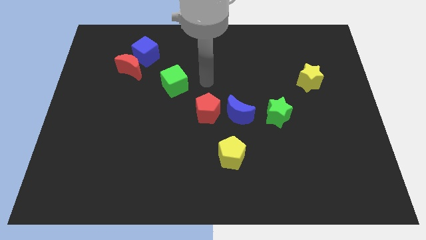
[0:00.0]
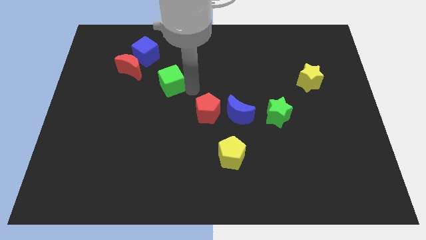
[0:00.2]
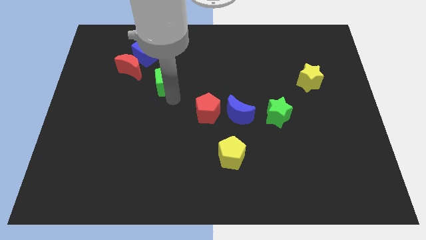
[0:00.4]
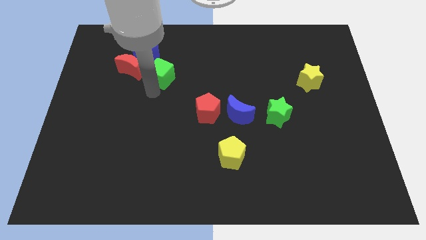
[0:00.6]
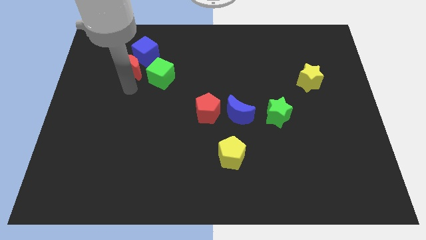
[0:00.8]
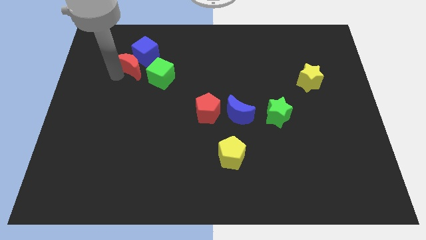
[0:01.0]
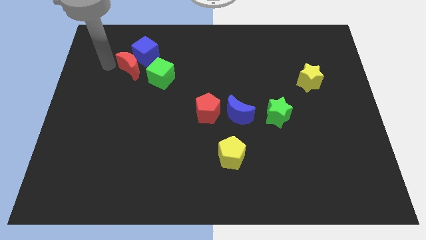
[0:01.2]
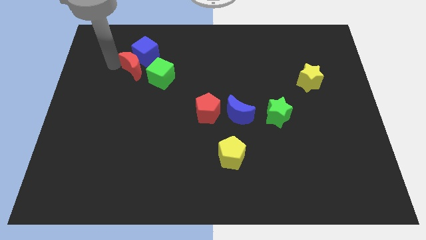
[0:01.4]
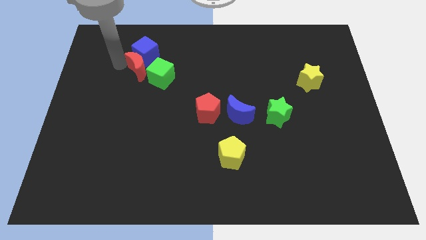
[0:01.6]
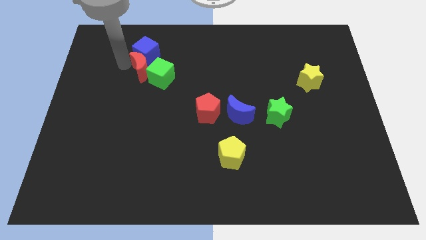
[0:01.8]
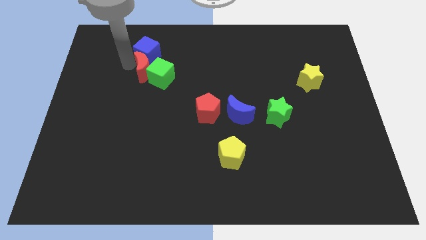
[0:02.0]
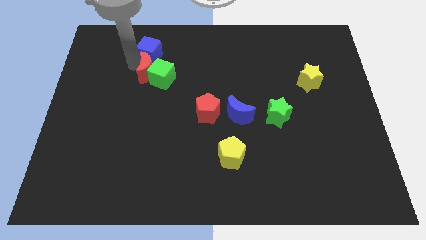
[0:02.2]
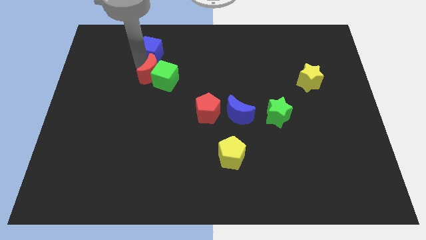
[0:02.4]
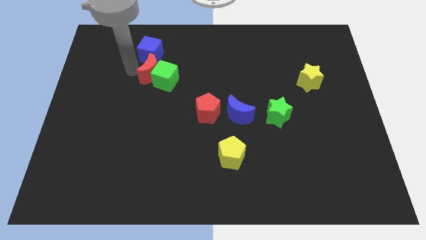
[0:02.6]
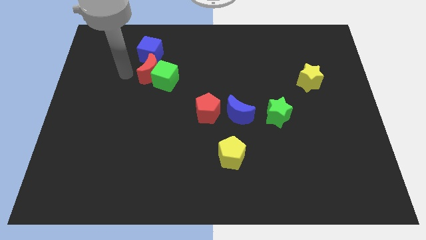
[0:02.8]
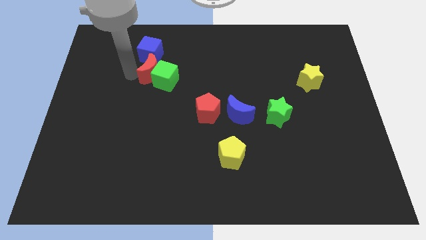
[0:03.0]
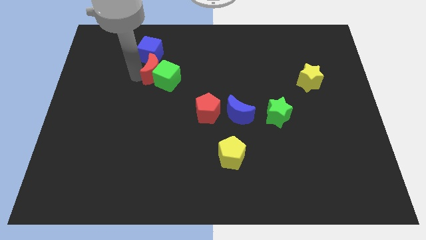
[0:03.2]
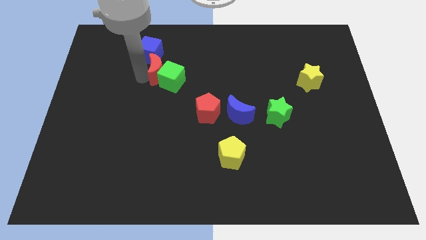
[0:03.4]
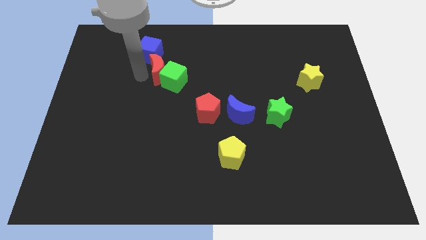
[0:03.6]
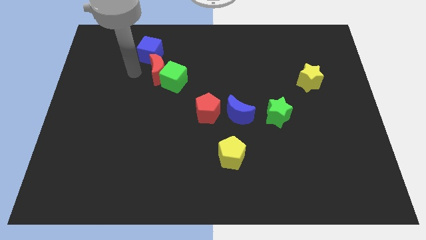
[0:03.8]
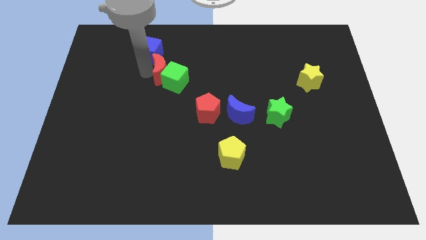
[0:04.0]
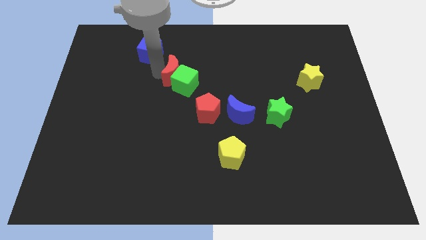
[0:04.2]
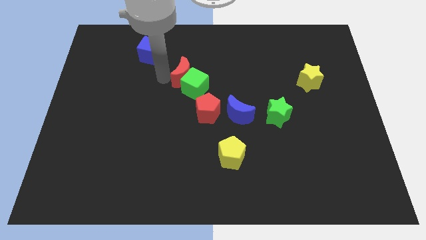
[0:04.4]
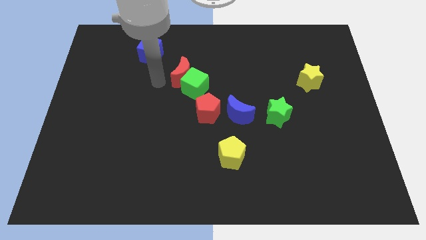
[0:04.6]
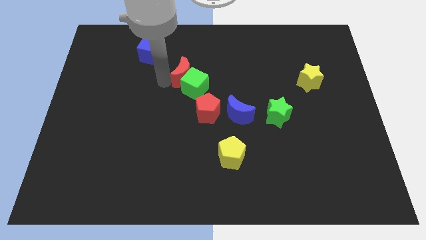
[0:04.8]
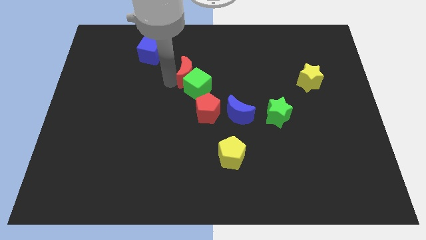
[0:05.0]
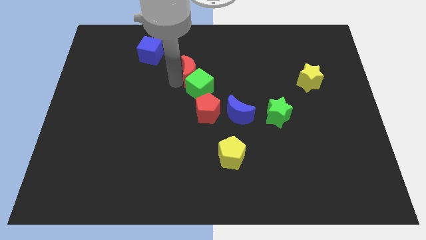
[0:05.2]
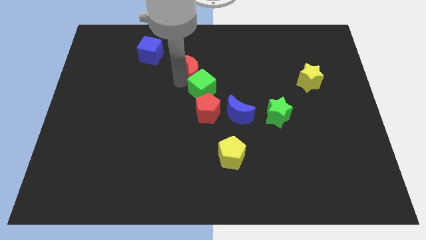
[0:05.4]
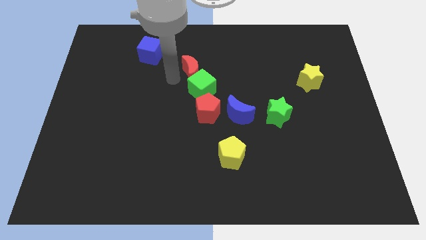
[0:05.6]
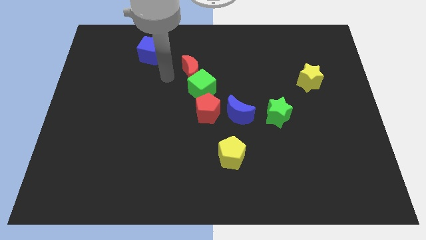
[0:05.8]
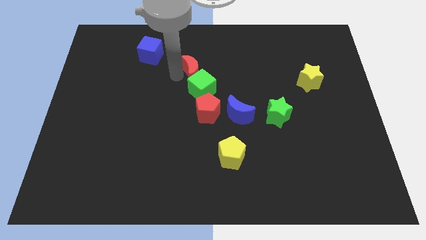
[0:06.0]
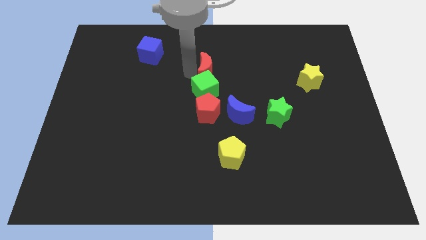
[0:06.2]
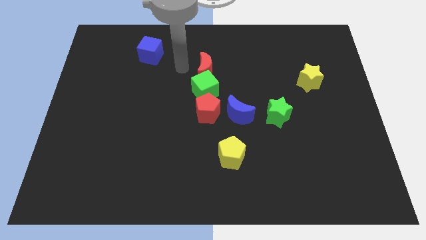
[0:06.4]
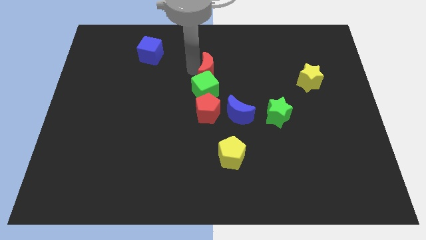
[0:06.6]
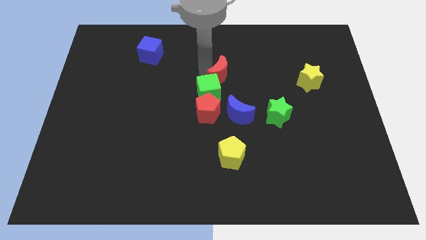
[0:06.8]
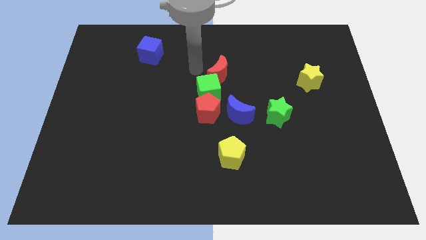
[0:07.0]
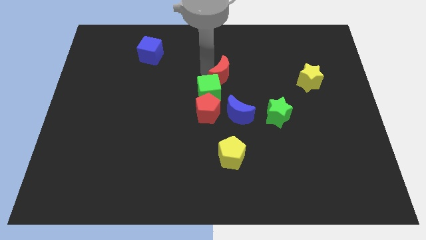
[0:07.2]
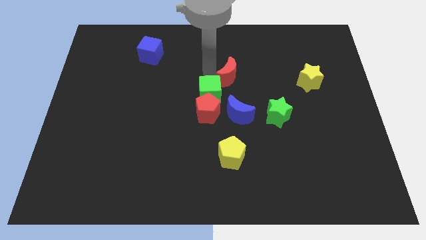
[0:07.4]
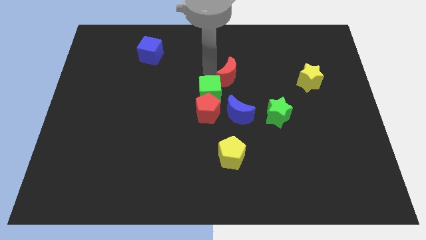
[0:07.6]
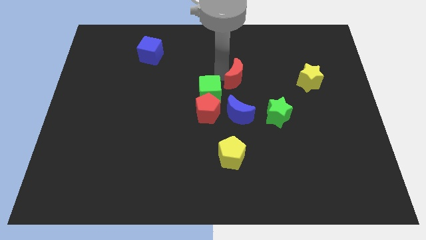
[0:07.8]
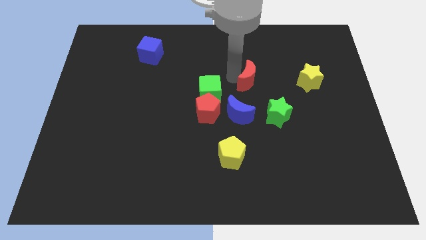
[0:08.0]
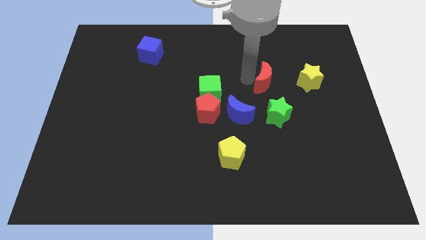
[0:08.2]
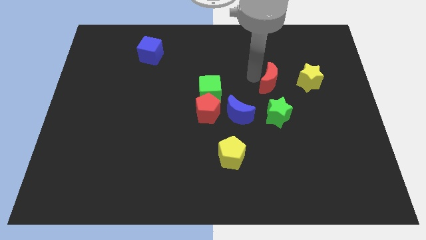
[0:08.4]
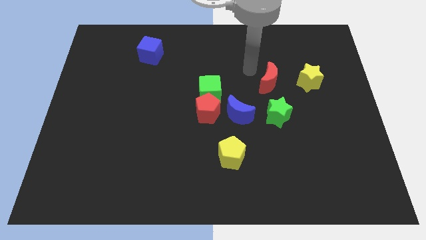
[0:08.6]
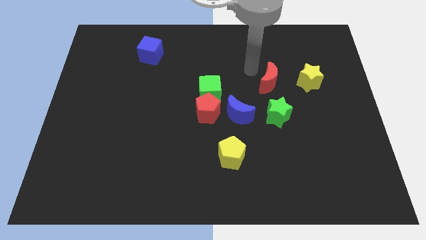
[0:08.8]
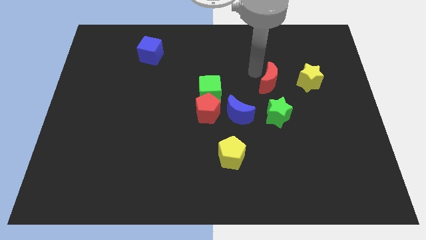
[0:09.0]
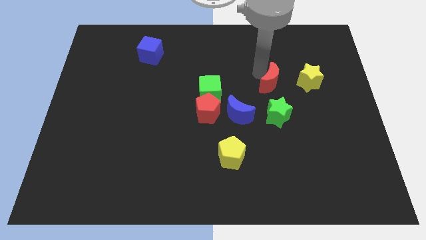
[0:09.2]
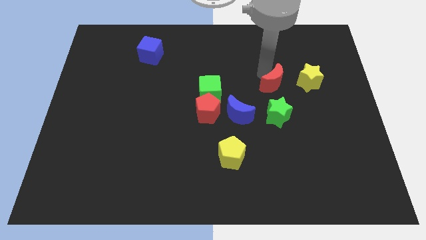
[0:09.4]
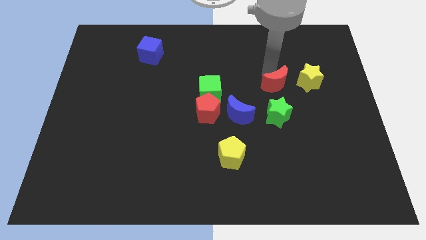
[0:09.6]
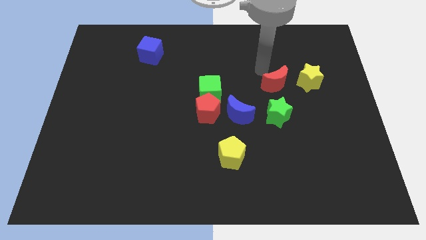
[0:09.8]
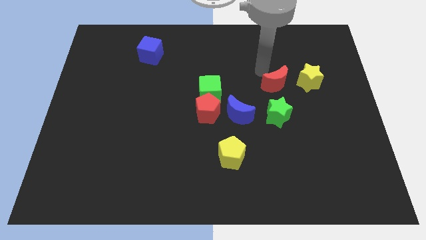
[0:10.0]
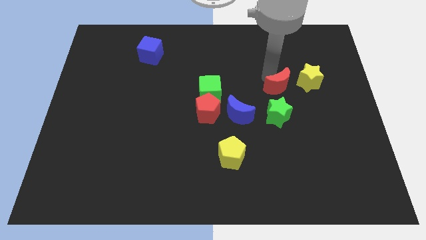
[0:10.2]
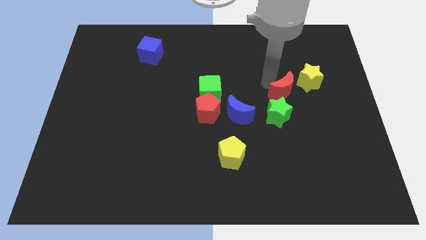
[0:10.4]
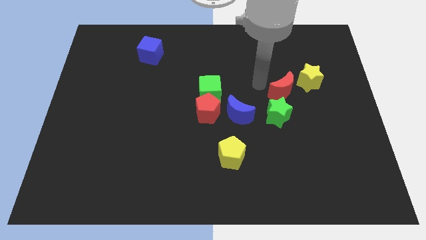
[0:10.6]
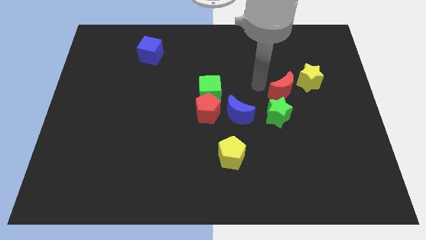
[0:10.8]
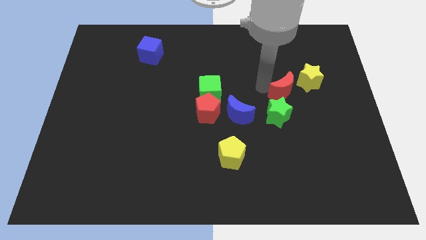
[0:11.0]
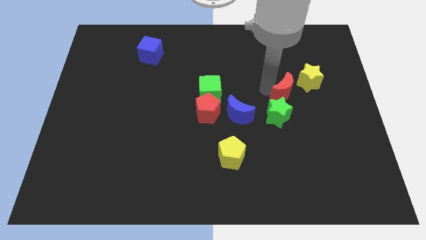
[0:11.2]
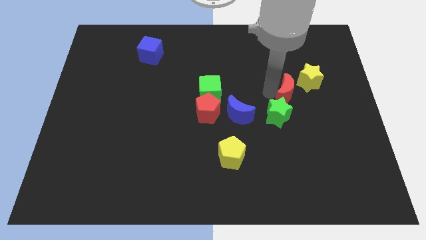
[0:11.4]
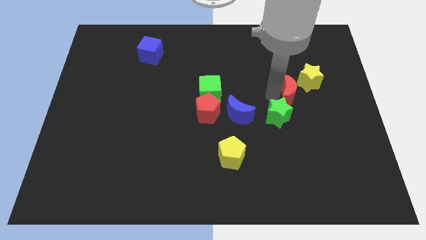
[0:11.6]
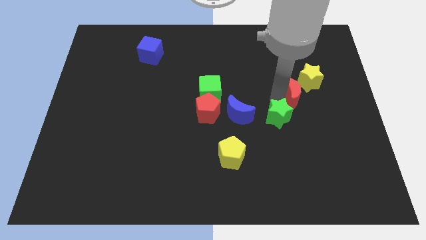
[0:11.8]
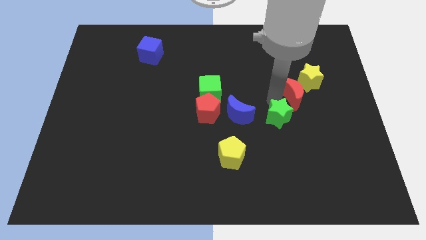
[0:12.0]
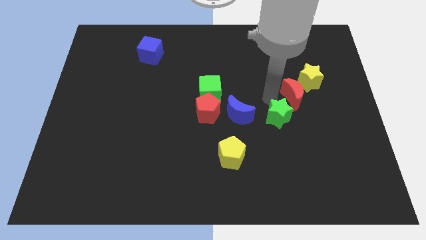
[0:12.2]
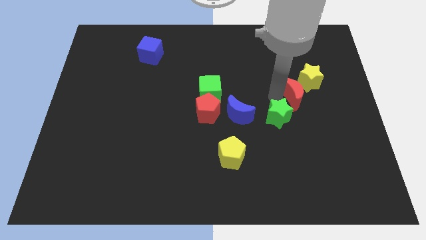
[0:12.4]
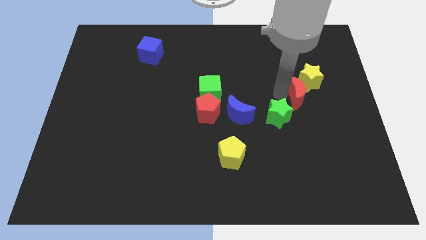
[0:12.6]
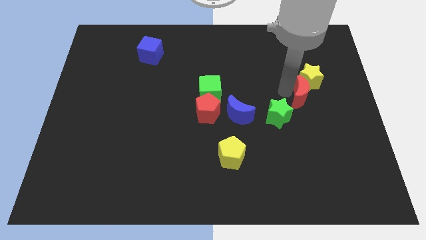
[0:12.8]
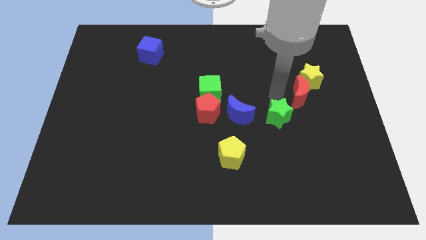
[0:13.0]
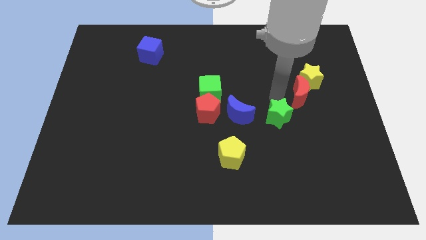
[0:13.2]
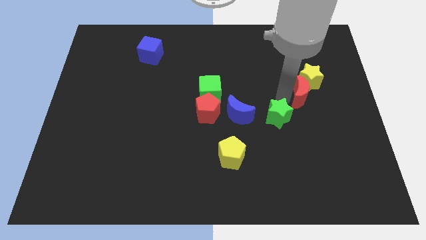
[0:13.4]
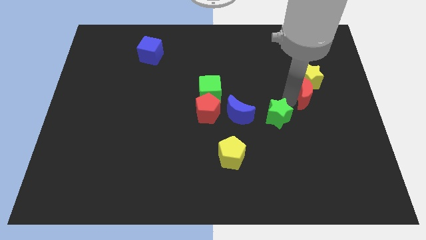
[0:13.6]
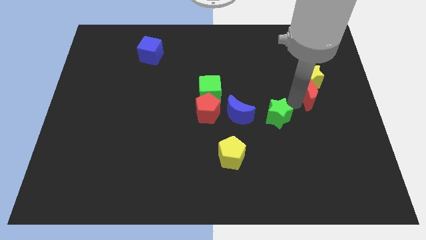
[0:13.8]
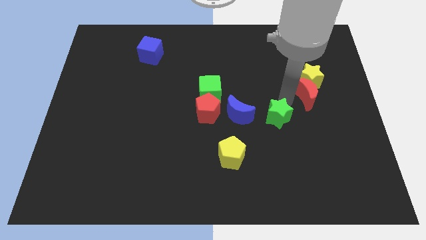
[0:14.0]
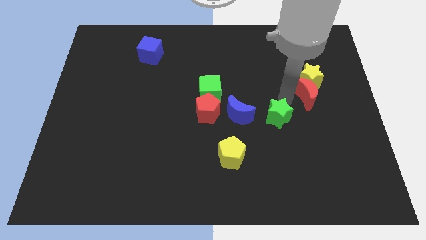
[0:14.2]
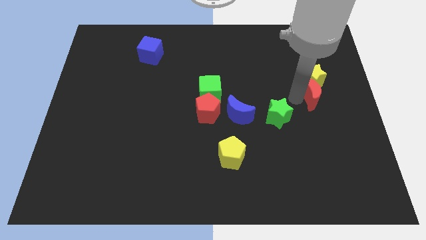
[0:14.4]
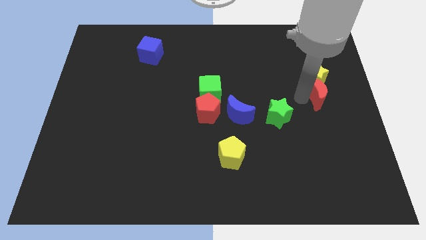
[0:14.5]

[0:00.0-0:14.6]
move the red moon to the right side
